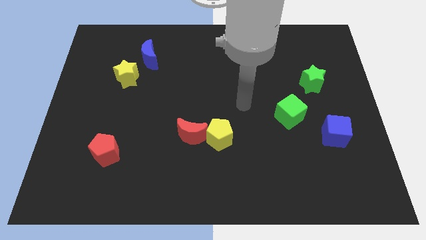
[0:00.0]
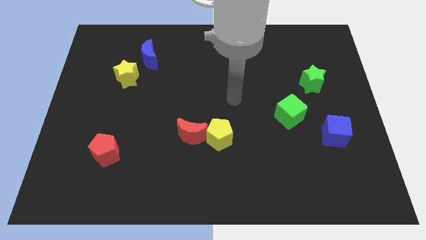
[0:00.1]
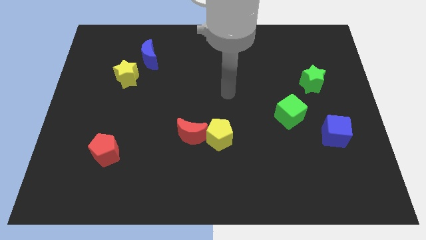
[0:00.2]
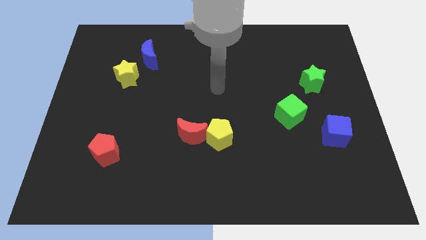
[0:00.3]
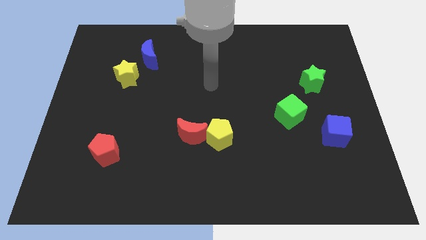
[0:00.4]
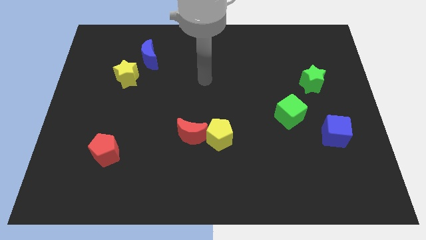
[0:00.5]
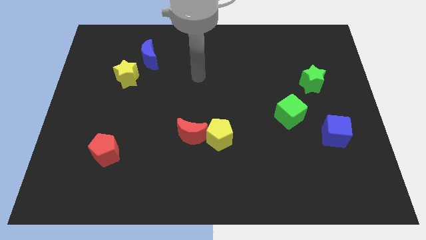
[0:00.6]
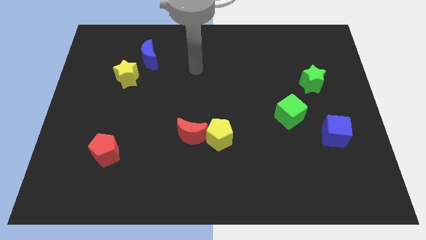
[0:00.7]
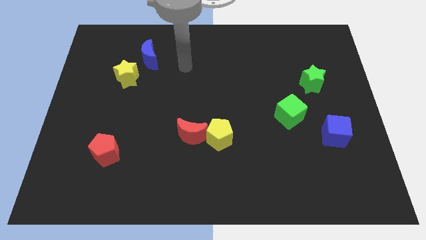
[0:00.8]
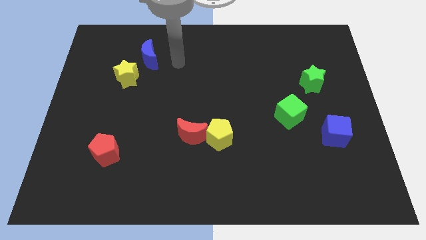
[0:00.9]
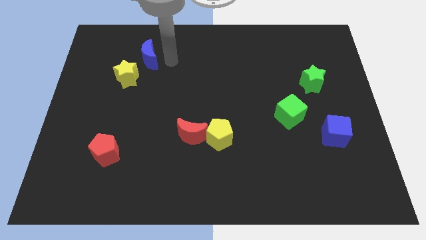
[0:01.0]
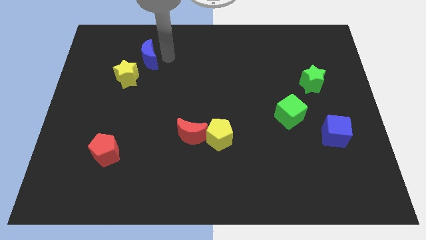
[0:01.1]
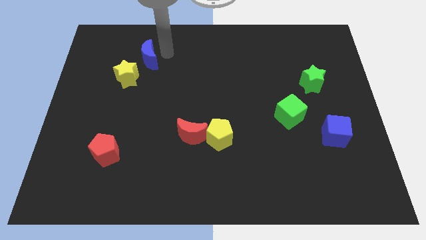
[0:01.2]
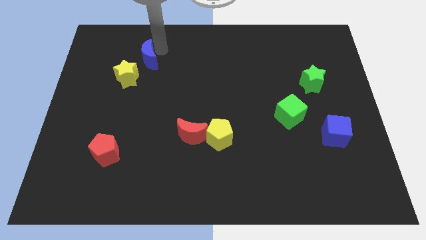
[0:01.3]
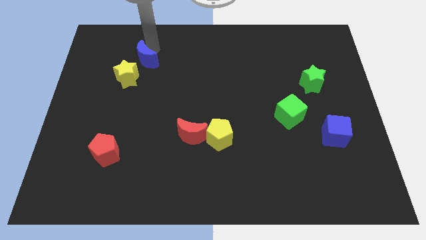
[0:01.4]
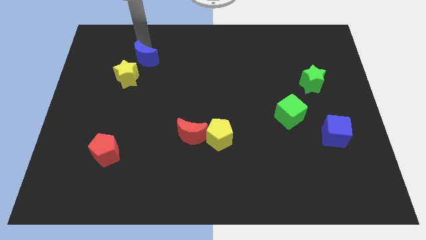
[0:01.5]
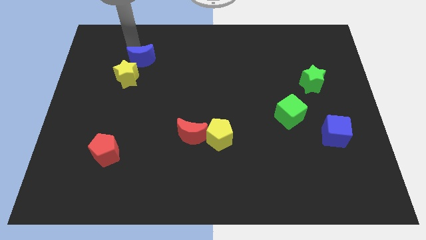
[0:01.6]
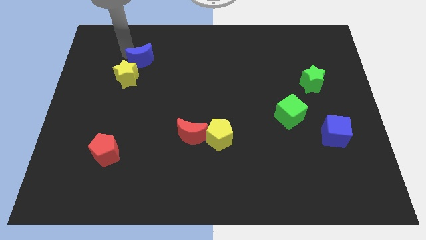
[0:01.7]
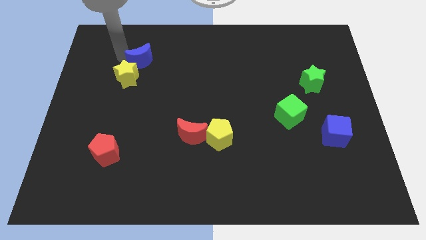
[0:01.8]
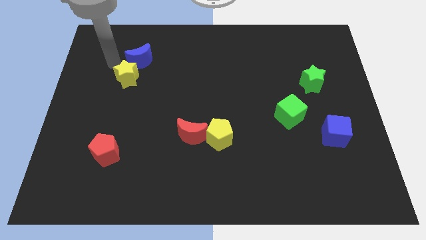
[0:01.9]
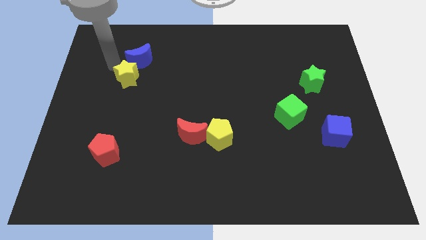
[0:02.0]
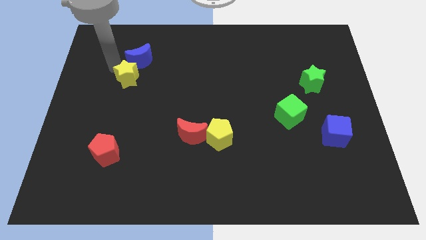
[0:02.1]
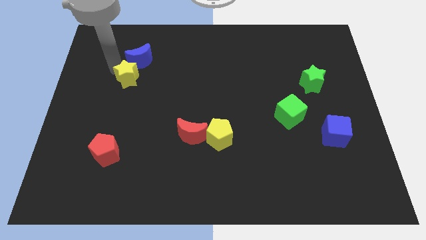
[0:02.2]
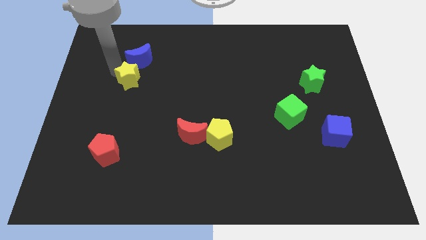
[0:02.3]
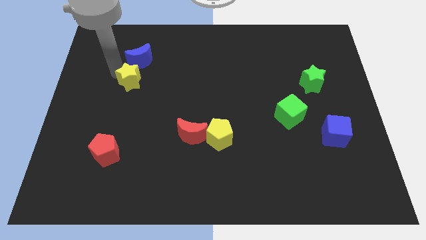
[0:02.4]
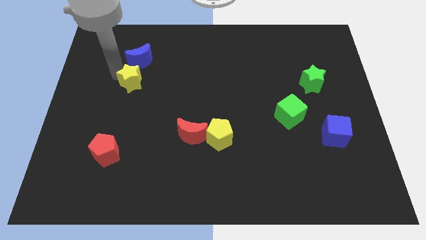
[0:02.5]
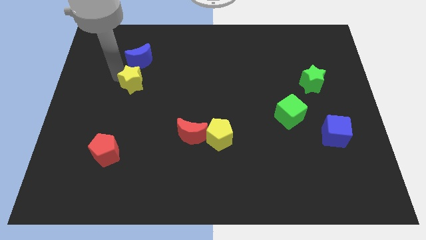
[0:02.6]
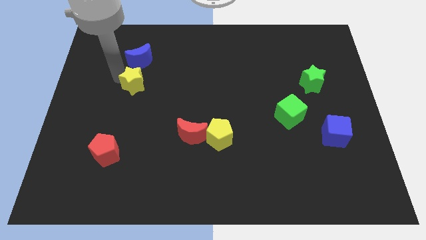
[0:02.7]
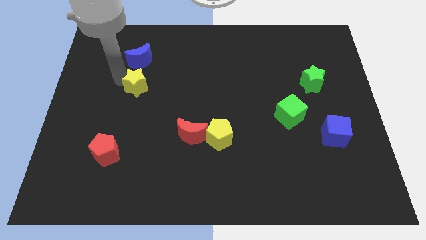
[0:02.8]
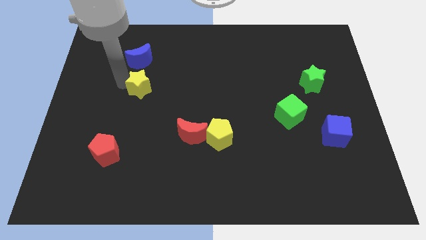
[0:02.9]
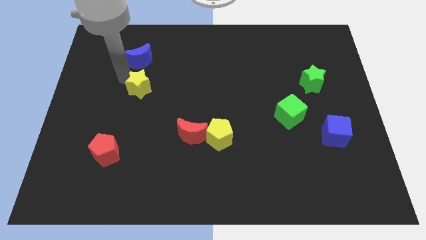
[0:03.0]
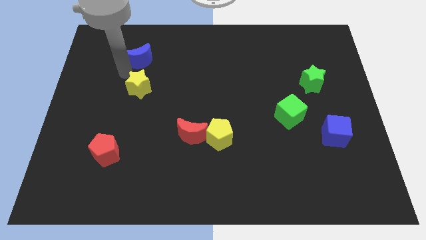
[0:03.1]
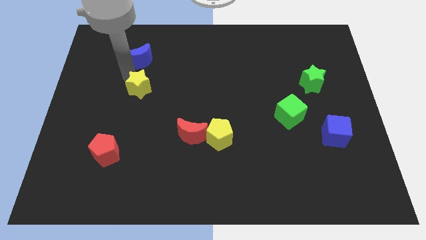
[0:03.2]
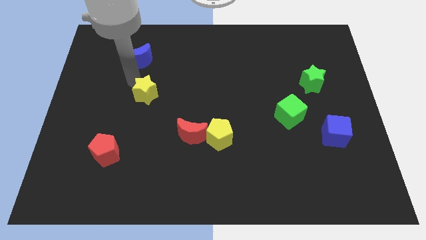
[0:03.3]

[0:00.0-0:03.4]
push the yellow star somewhat diagonally down and right

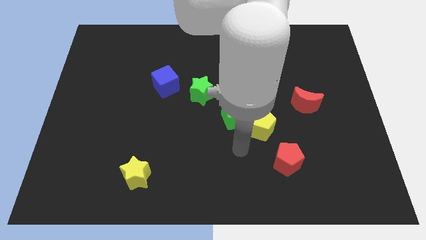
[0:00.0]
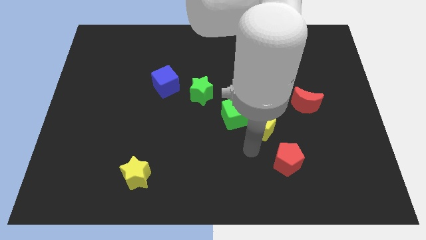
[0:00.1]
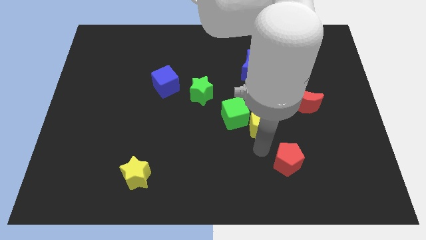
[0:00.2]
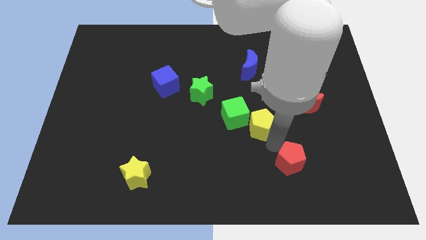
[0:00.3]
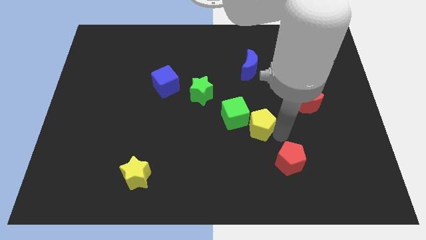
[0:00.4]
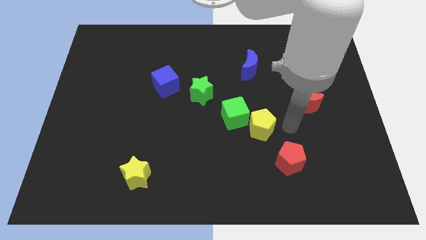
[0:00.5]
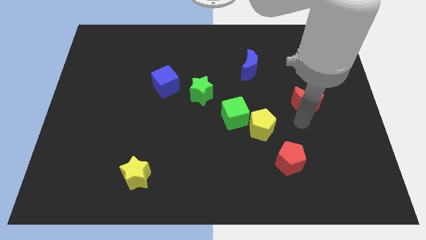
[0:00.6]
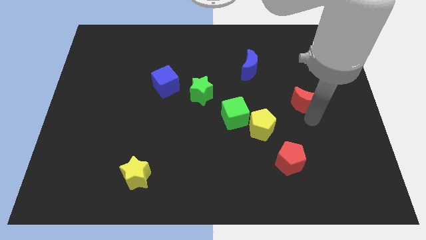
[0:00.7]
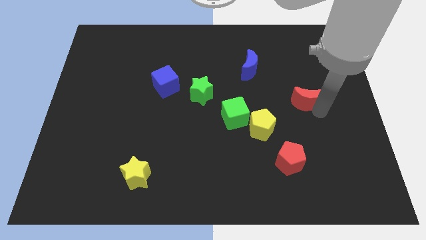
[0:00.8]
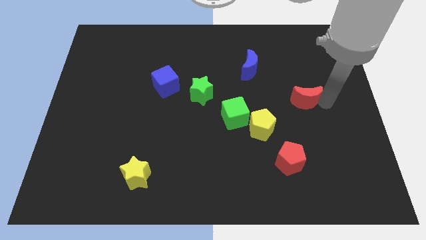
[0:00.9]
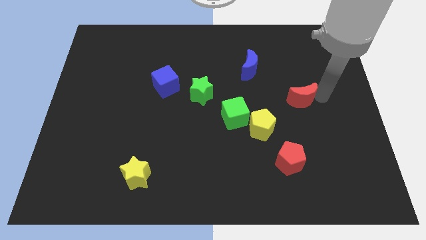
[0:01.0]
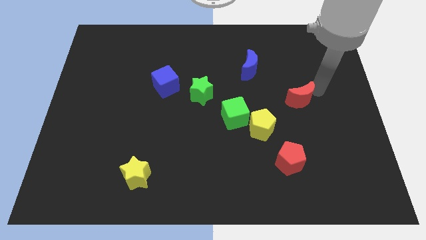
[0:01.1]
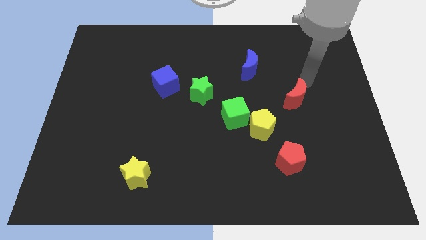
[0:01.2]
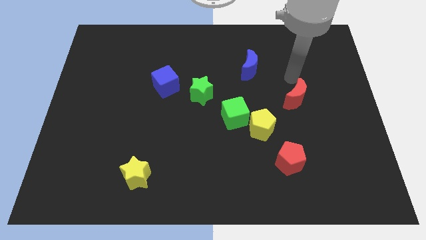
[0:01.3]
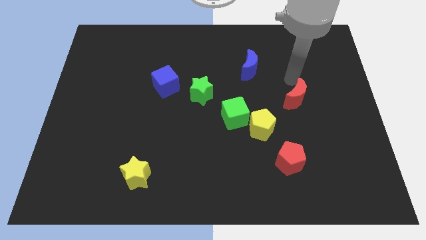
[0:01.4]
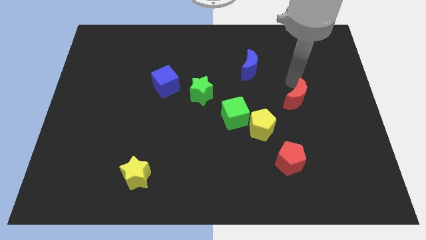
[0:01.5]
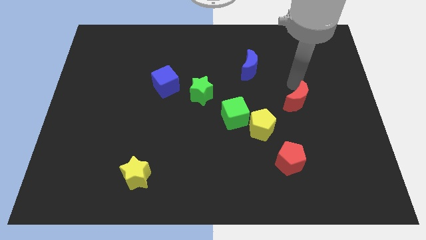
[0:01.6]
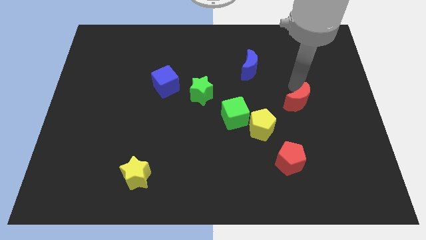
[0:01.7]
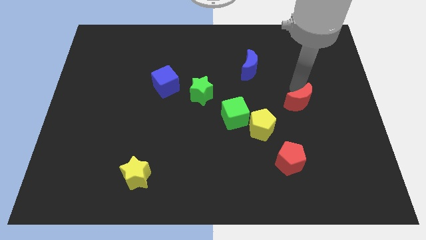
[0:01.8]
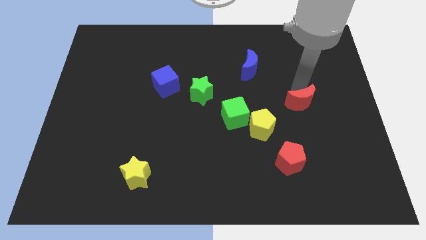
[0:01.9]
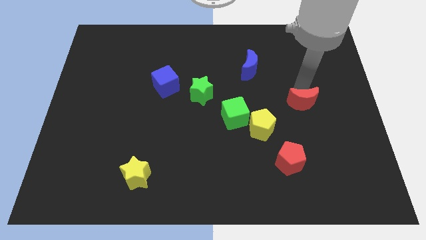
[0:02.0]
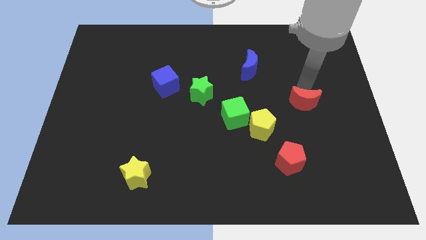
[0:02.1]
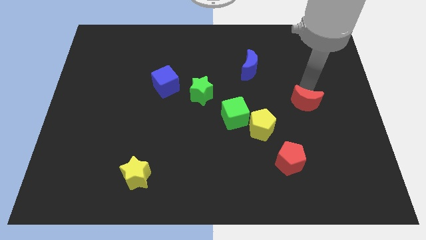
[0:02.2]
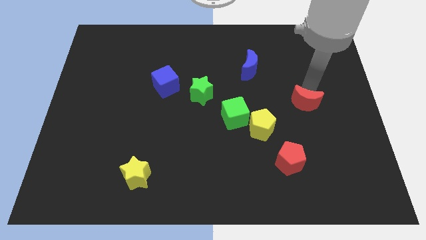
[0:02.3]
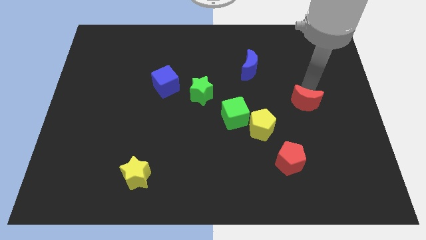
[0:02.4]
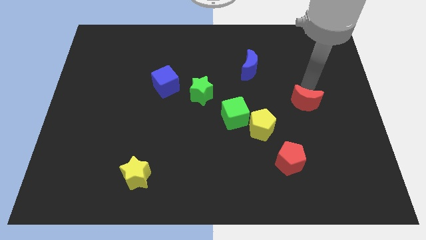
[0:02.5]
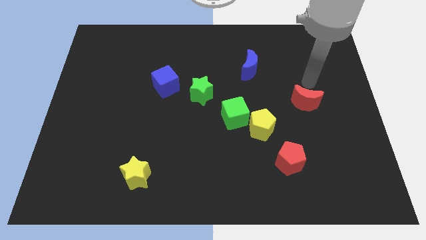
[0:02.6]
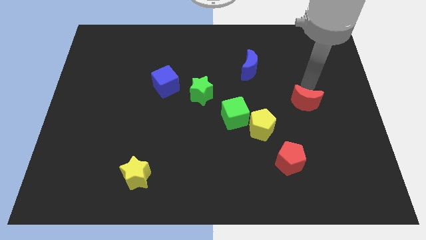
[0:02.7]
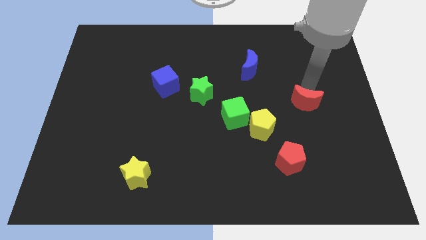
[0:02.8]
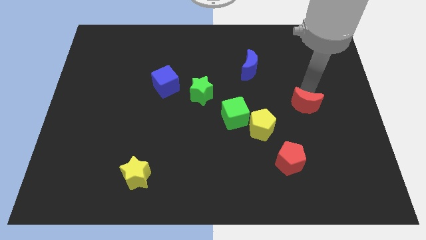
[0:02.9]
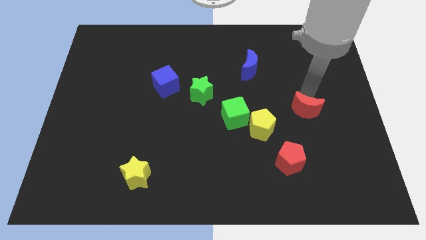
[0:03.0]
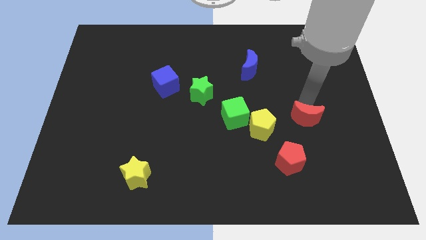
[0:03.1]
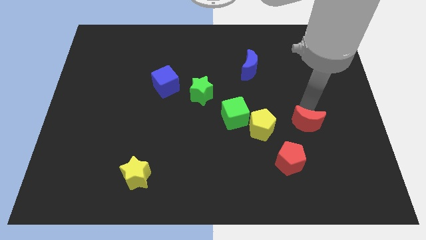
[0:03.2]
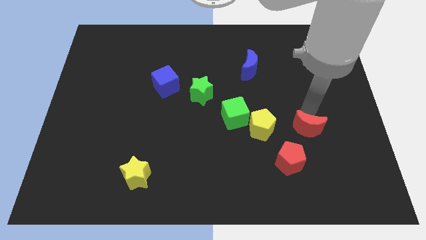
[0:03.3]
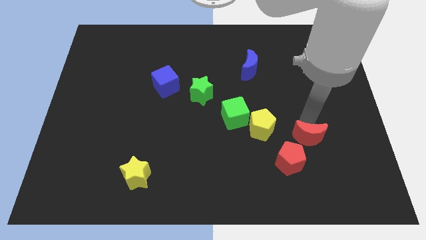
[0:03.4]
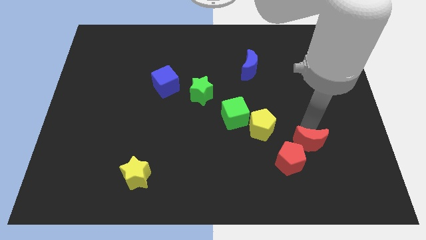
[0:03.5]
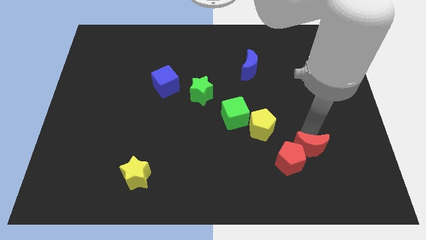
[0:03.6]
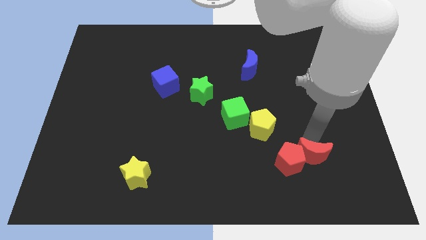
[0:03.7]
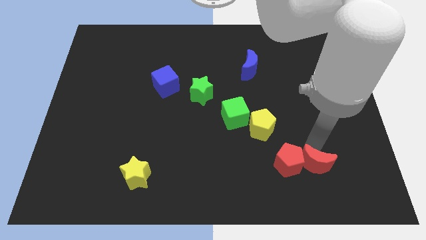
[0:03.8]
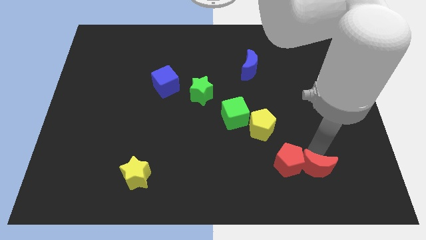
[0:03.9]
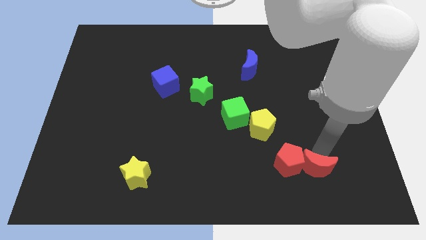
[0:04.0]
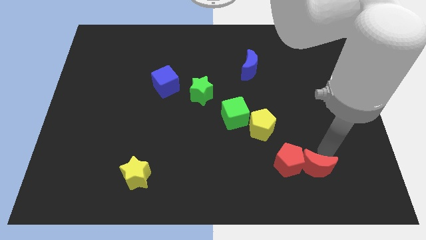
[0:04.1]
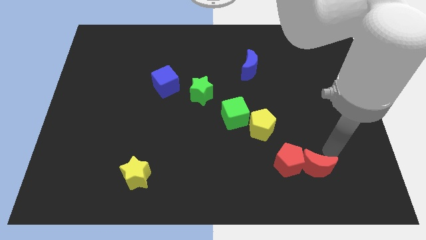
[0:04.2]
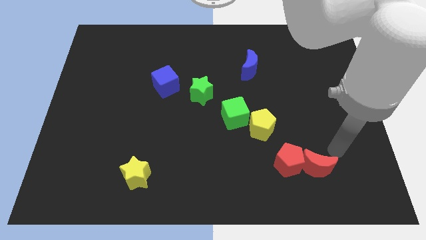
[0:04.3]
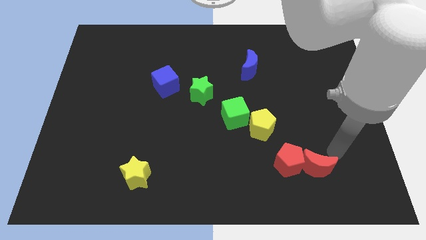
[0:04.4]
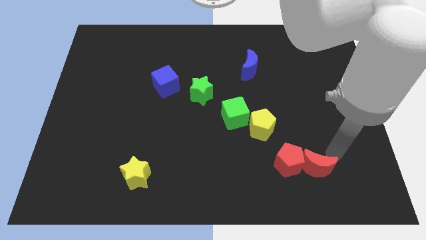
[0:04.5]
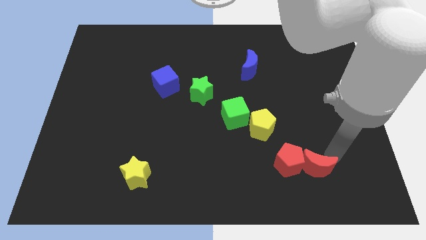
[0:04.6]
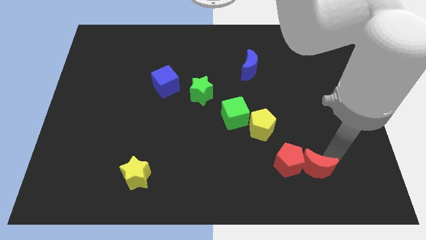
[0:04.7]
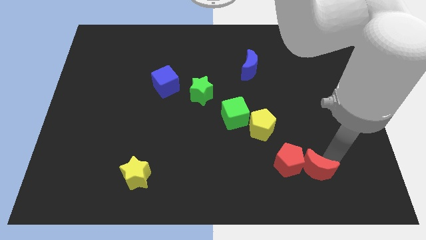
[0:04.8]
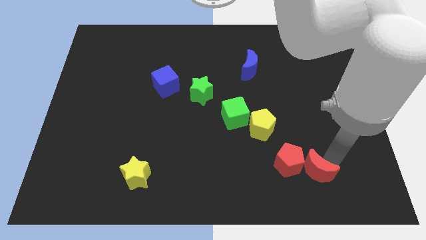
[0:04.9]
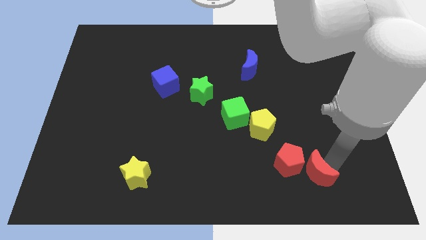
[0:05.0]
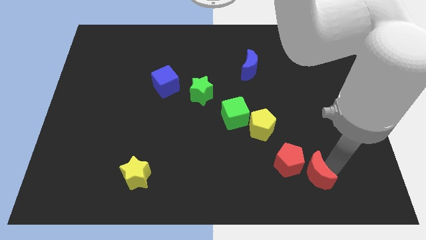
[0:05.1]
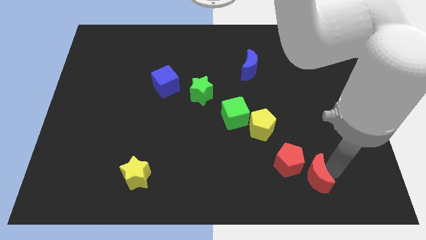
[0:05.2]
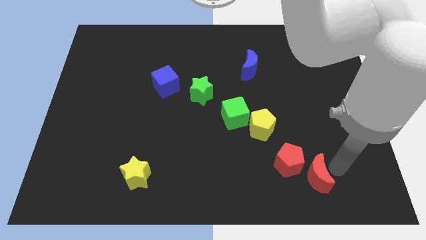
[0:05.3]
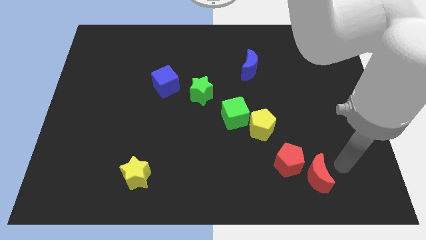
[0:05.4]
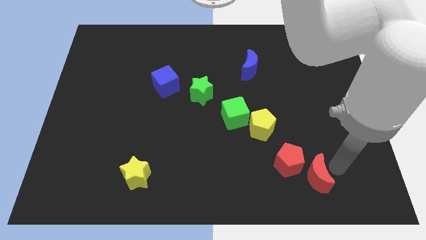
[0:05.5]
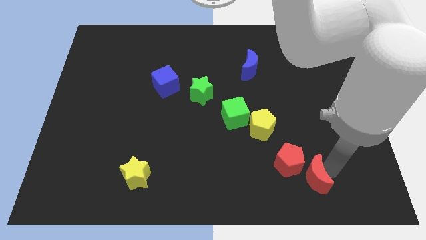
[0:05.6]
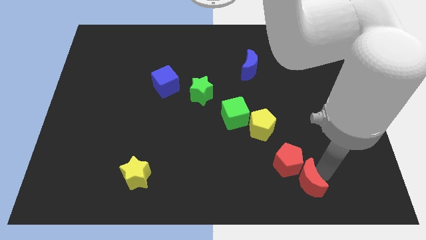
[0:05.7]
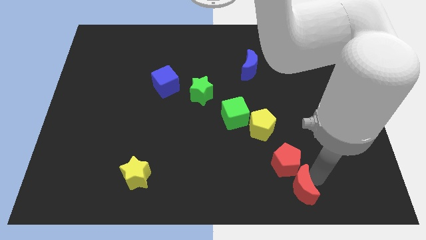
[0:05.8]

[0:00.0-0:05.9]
push the red moon down and left a little bit
